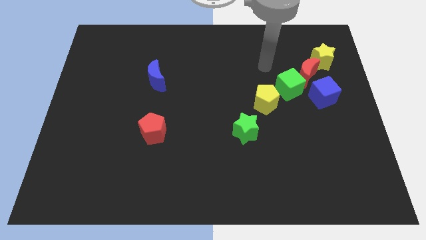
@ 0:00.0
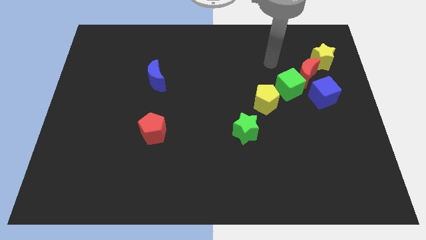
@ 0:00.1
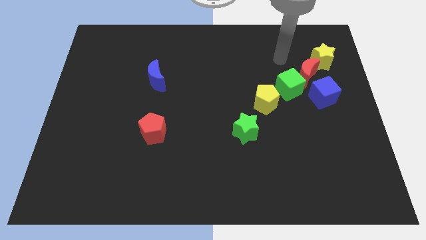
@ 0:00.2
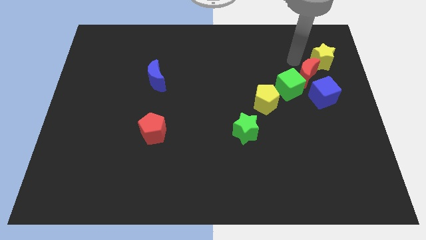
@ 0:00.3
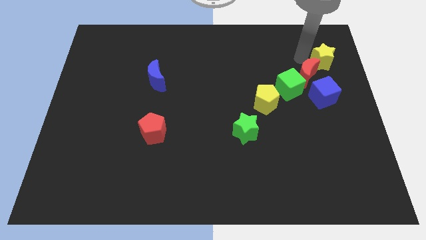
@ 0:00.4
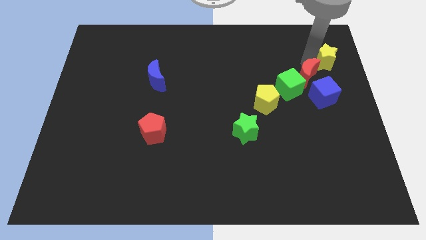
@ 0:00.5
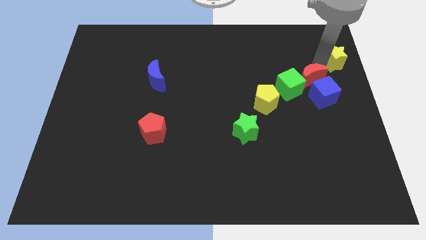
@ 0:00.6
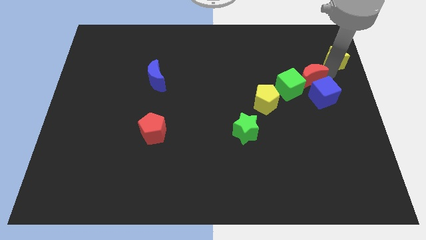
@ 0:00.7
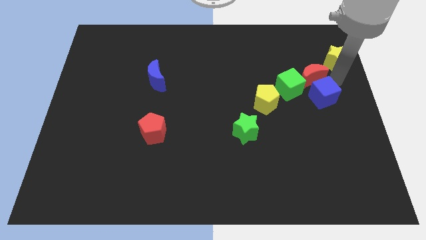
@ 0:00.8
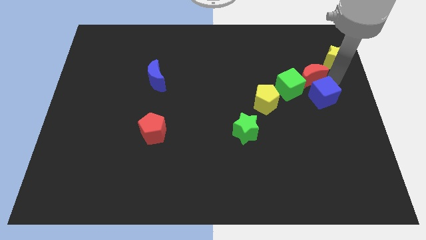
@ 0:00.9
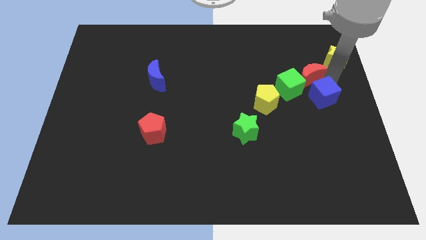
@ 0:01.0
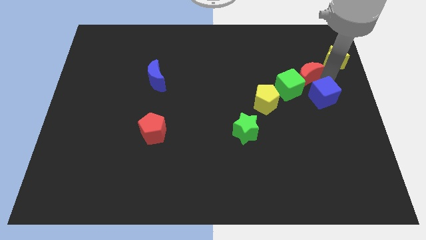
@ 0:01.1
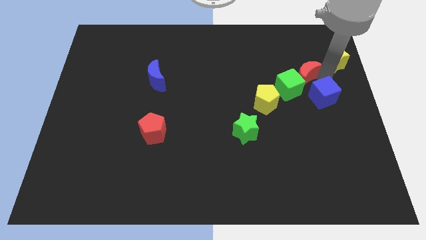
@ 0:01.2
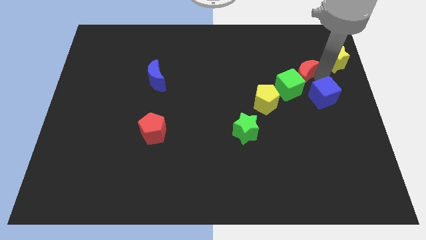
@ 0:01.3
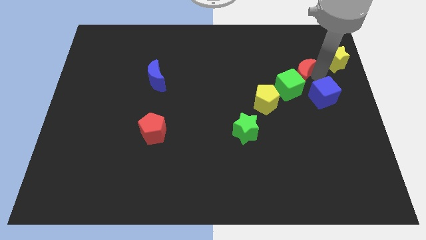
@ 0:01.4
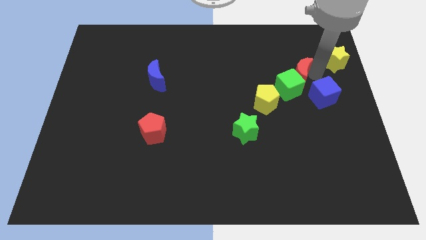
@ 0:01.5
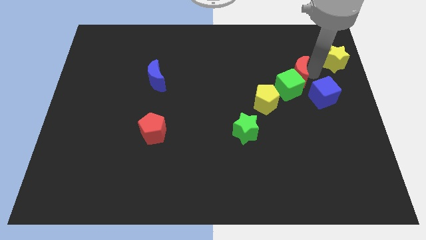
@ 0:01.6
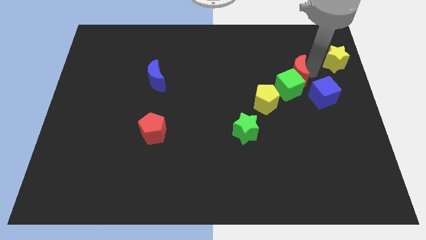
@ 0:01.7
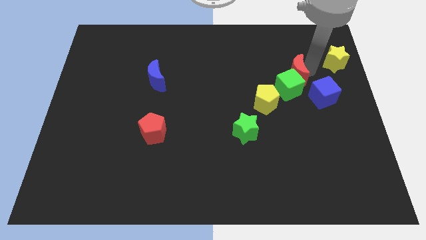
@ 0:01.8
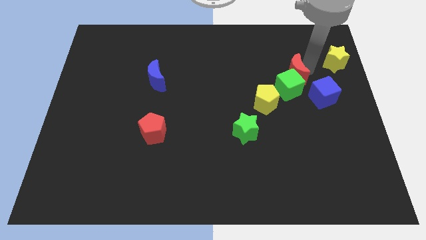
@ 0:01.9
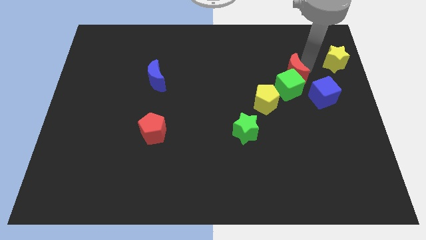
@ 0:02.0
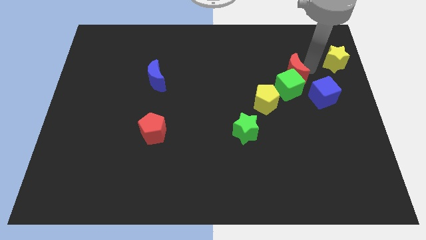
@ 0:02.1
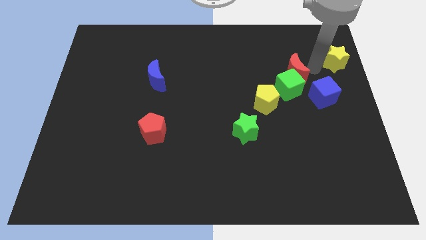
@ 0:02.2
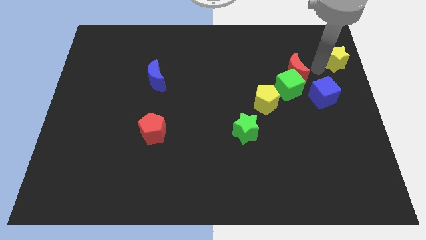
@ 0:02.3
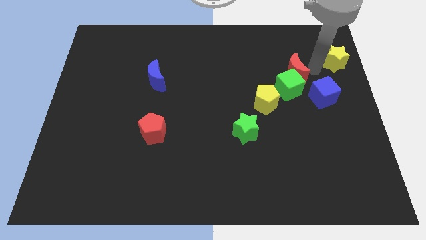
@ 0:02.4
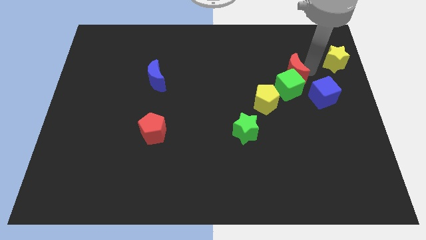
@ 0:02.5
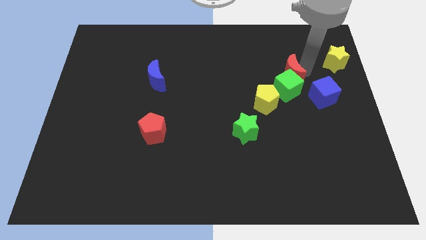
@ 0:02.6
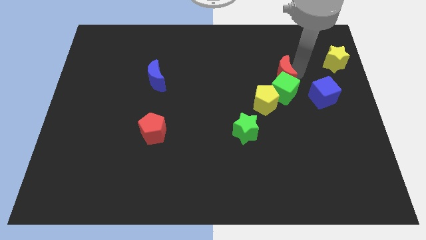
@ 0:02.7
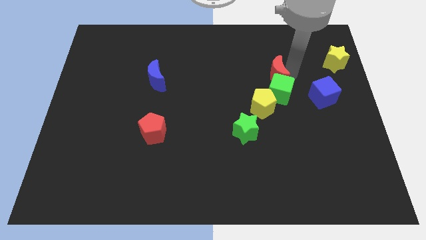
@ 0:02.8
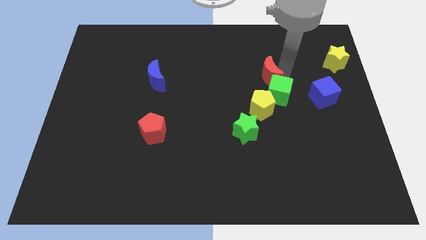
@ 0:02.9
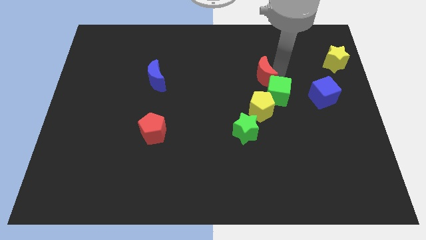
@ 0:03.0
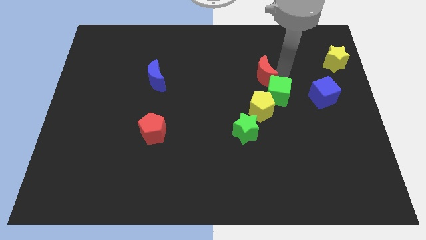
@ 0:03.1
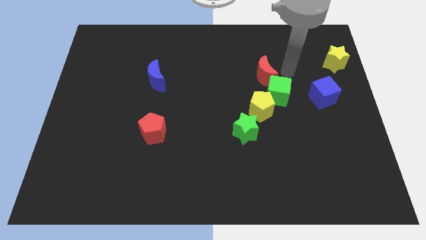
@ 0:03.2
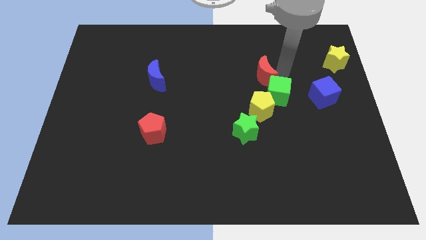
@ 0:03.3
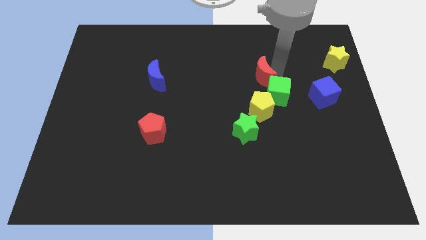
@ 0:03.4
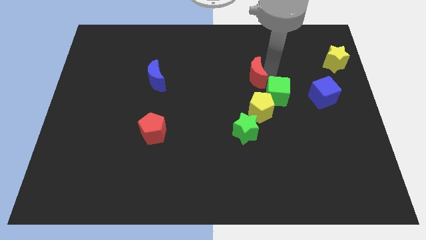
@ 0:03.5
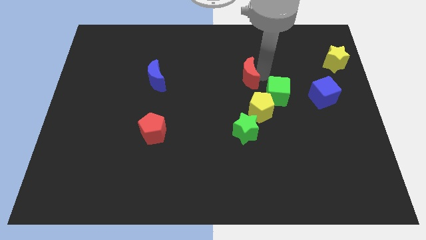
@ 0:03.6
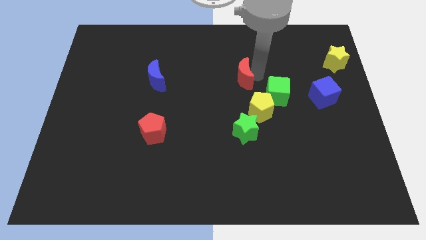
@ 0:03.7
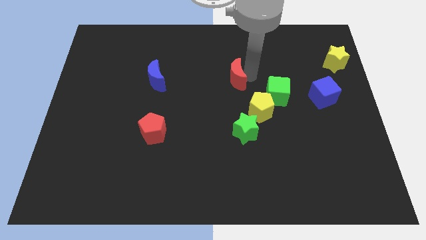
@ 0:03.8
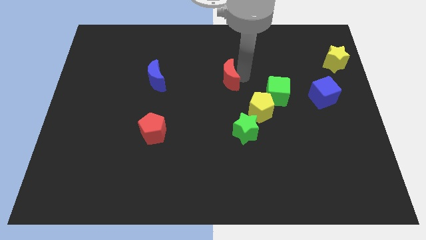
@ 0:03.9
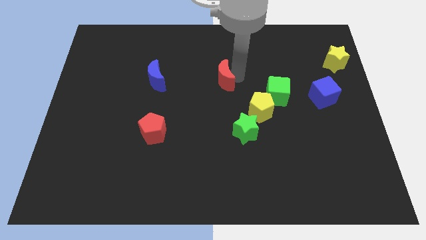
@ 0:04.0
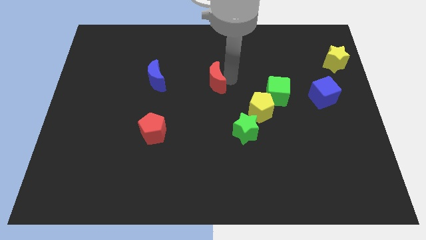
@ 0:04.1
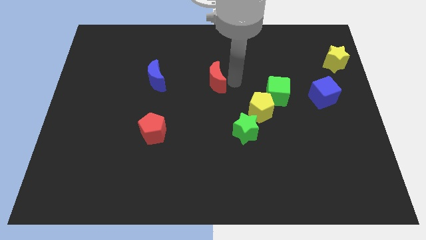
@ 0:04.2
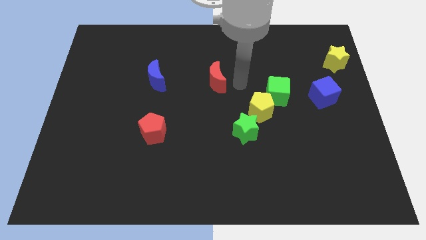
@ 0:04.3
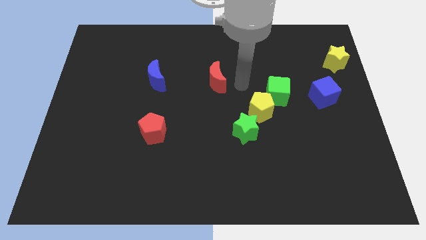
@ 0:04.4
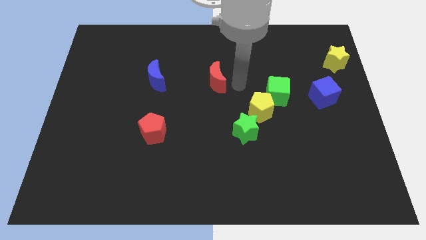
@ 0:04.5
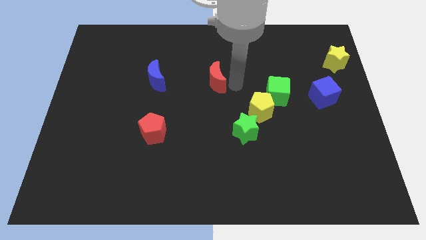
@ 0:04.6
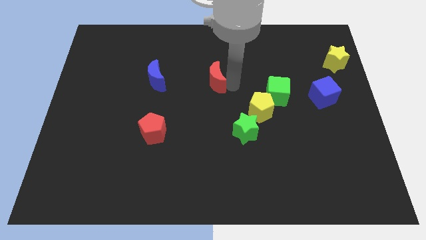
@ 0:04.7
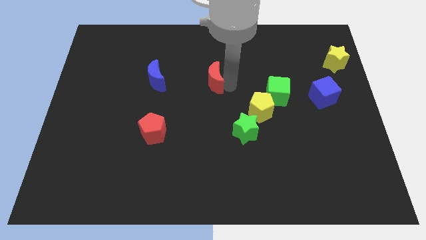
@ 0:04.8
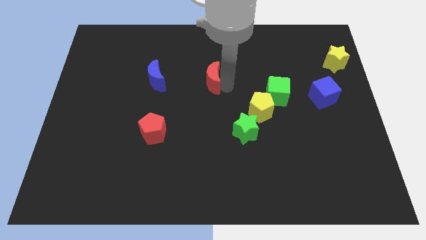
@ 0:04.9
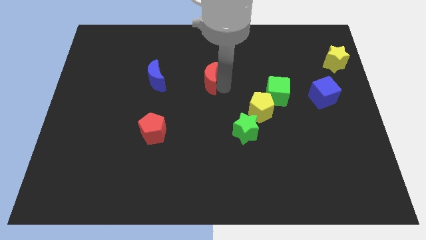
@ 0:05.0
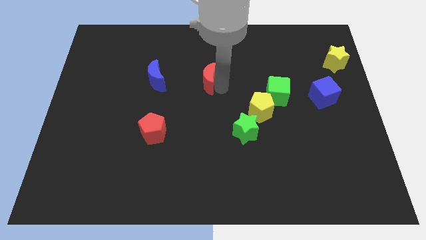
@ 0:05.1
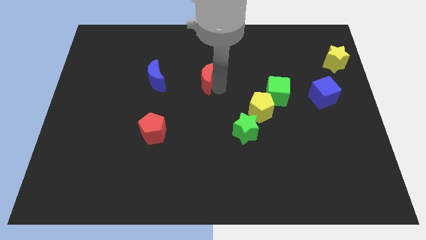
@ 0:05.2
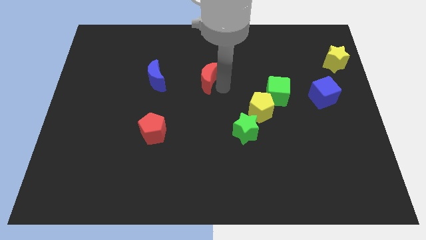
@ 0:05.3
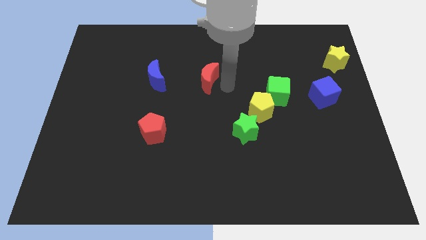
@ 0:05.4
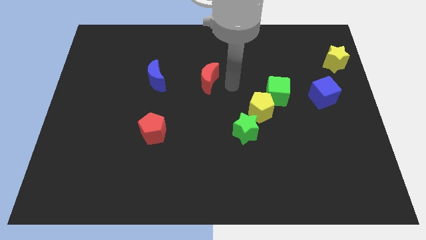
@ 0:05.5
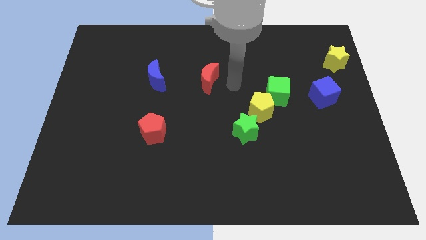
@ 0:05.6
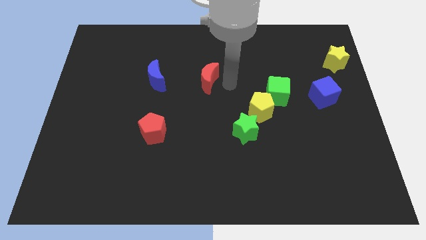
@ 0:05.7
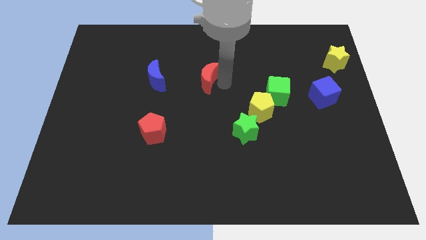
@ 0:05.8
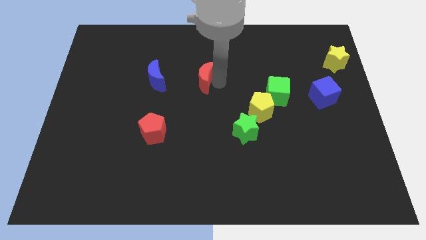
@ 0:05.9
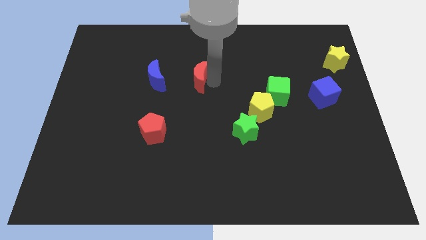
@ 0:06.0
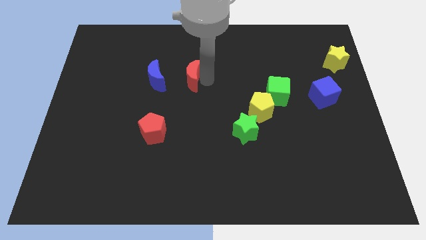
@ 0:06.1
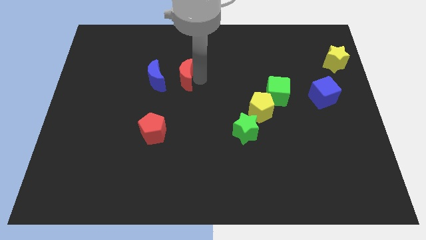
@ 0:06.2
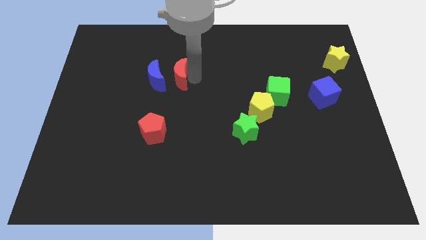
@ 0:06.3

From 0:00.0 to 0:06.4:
put the red moon next to the blue moon

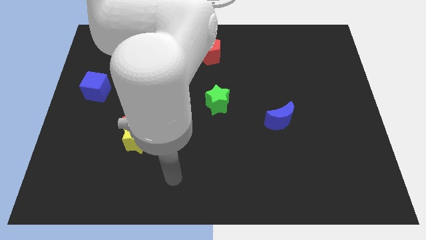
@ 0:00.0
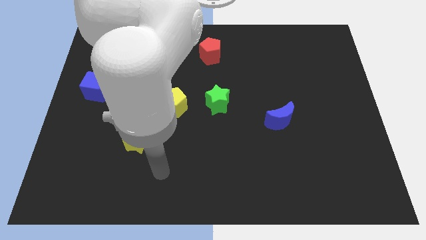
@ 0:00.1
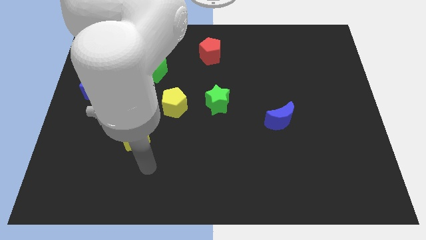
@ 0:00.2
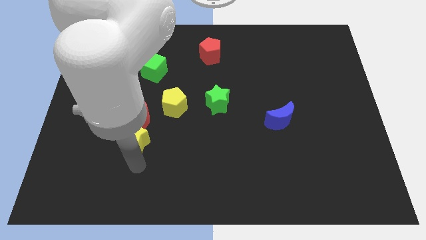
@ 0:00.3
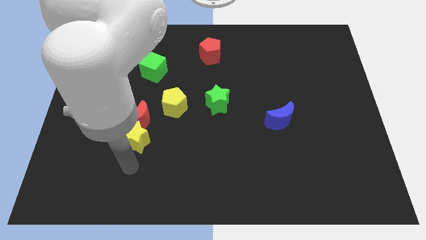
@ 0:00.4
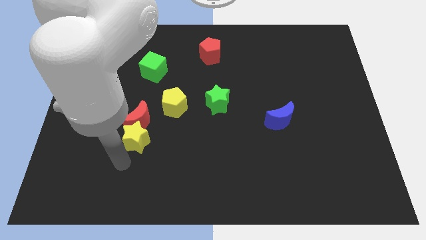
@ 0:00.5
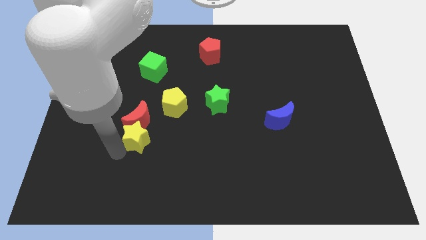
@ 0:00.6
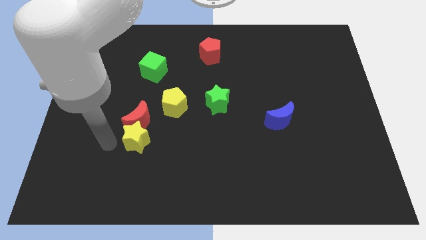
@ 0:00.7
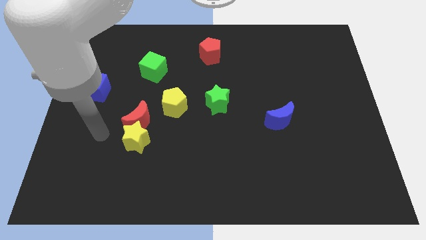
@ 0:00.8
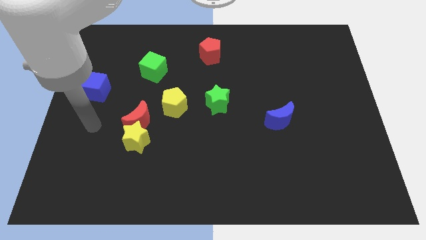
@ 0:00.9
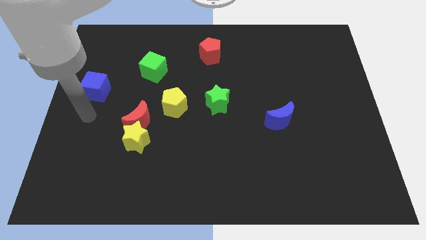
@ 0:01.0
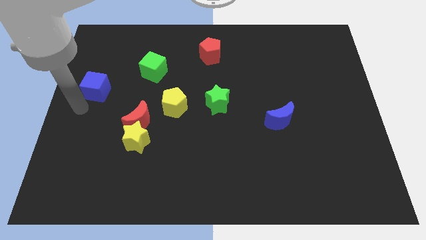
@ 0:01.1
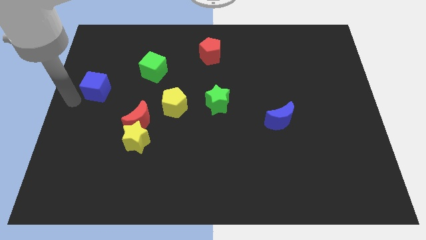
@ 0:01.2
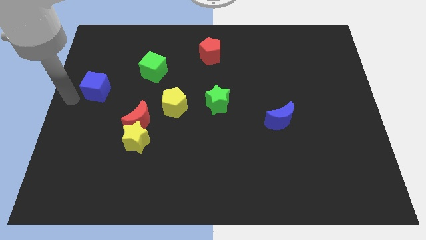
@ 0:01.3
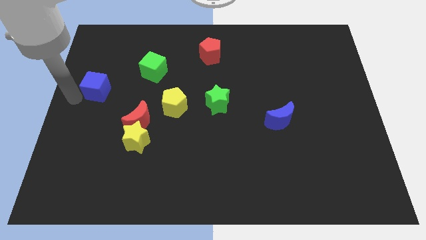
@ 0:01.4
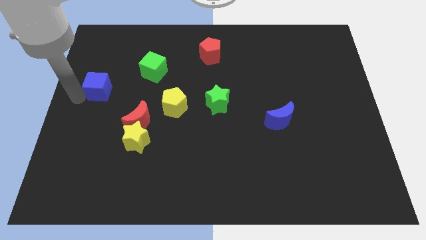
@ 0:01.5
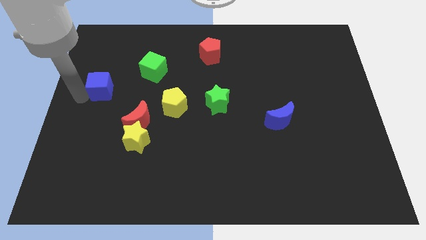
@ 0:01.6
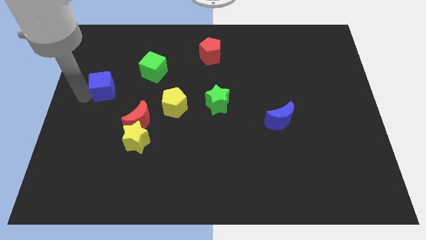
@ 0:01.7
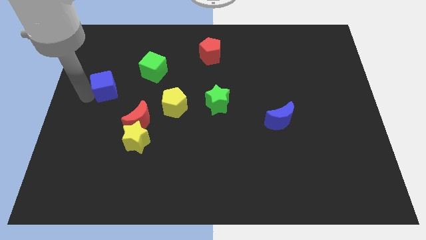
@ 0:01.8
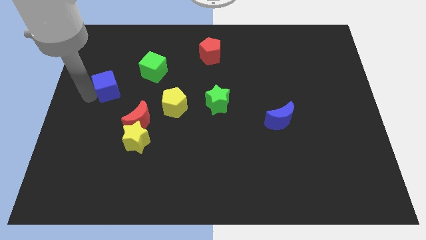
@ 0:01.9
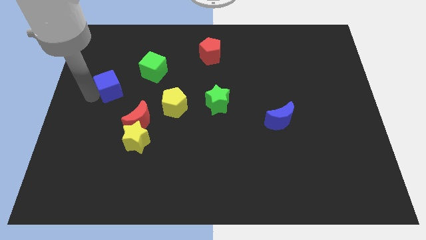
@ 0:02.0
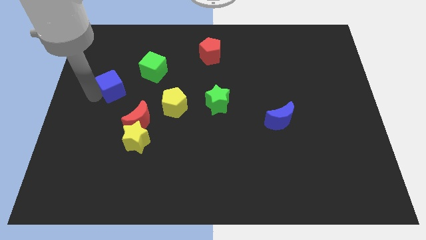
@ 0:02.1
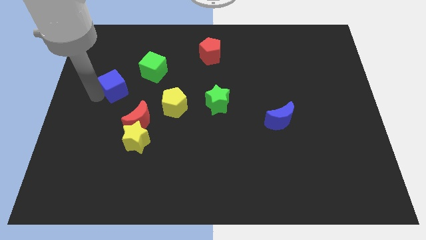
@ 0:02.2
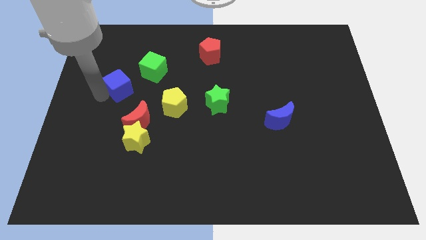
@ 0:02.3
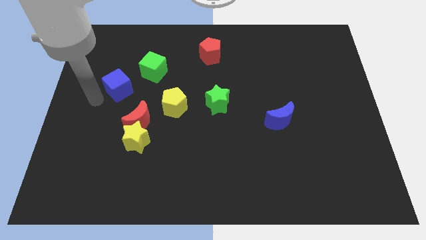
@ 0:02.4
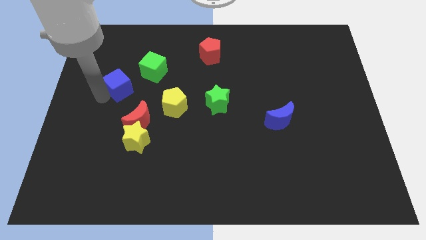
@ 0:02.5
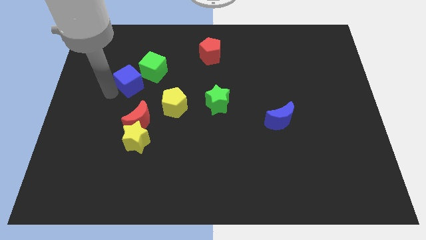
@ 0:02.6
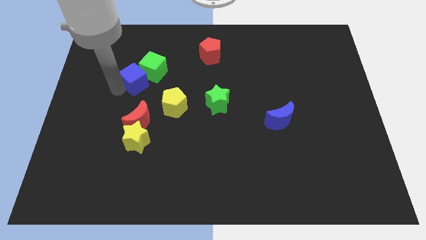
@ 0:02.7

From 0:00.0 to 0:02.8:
move the blue cube towards the green cube
